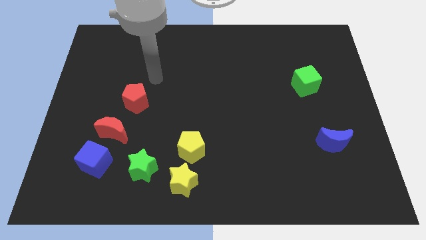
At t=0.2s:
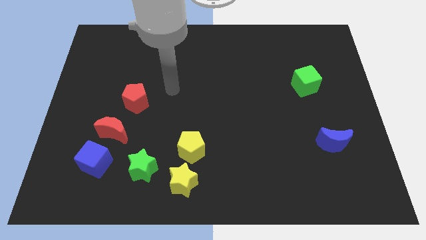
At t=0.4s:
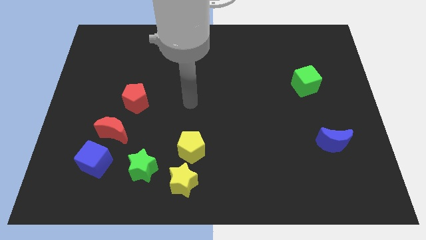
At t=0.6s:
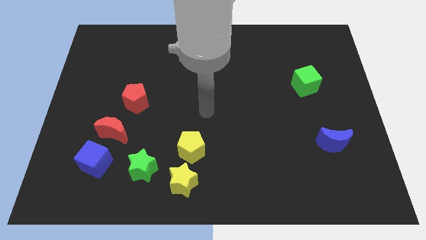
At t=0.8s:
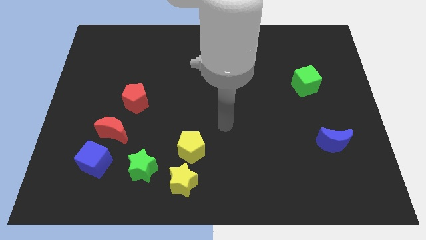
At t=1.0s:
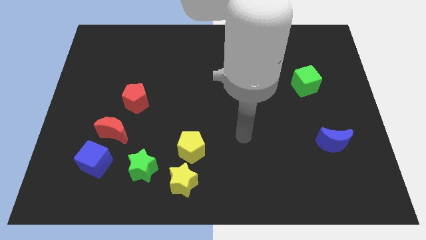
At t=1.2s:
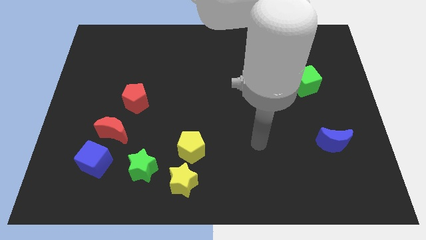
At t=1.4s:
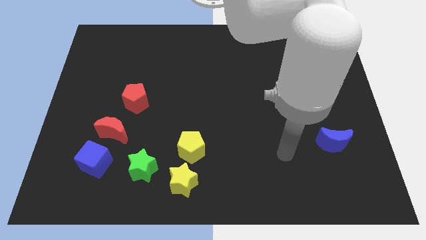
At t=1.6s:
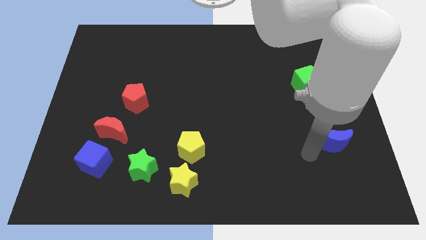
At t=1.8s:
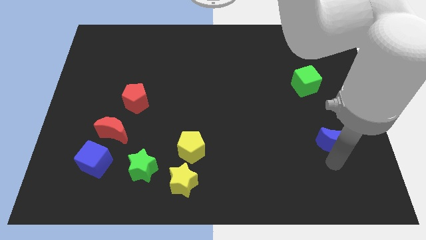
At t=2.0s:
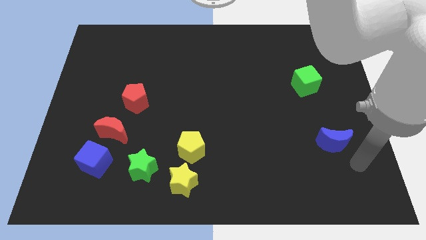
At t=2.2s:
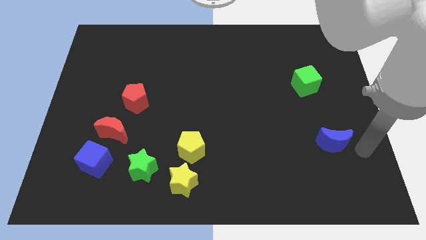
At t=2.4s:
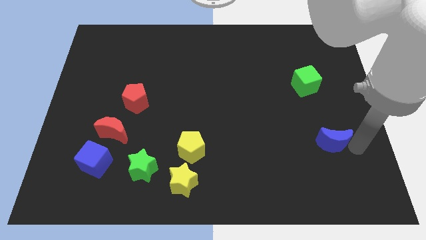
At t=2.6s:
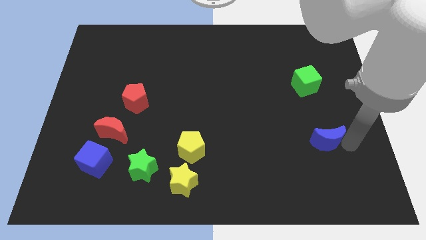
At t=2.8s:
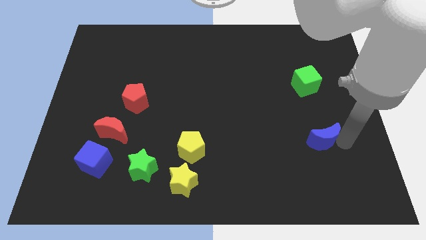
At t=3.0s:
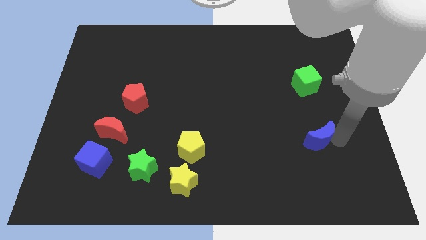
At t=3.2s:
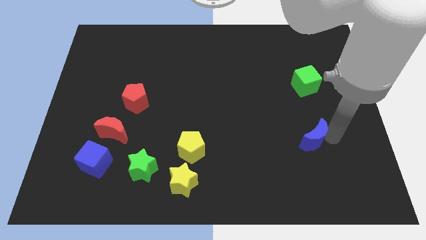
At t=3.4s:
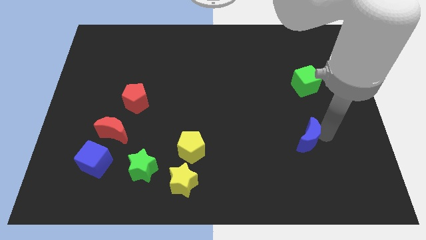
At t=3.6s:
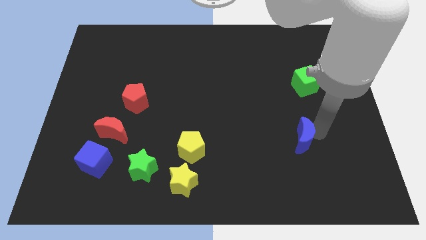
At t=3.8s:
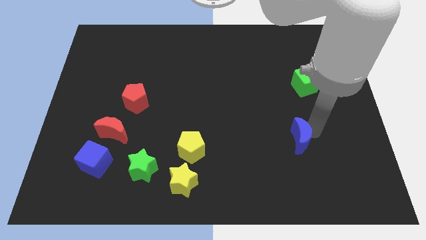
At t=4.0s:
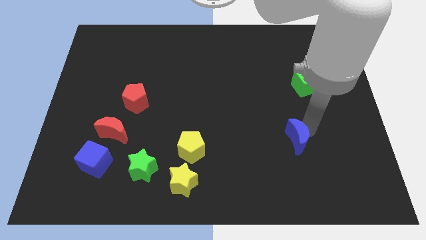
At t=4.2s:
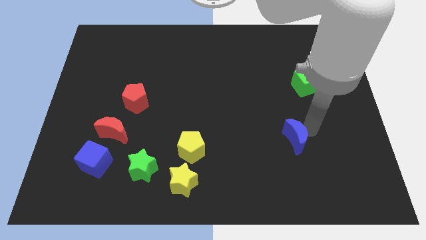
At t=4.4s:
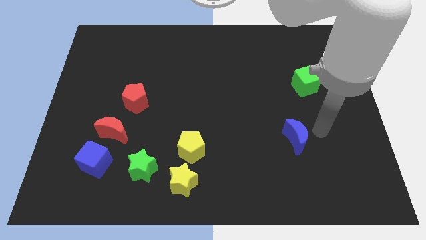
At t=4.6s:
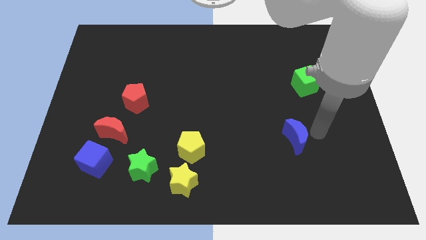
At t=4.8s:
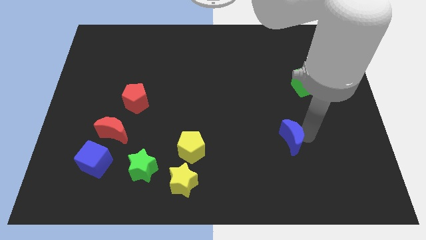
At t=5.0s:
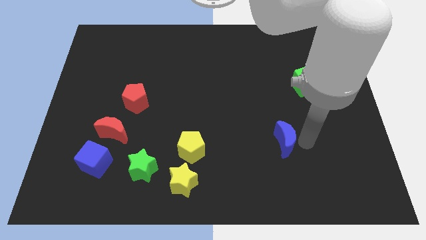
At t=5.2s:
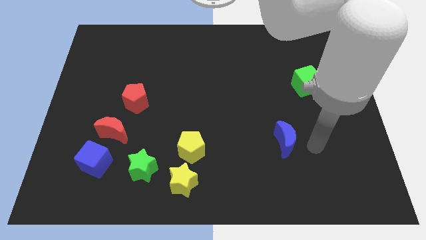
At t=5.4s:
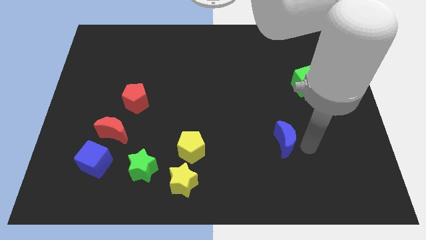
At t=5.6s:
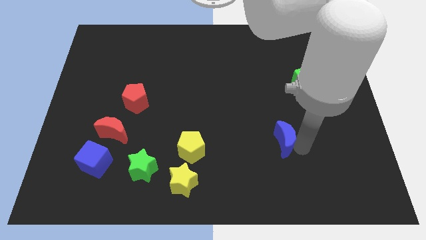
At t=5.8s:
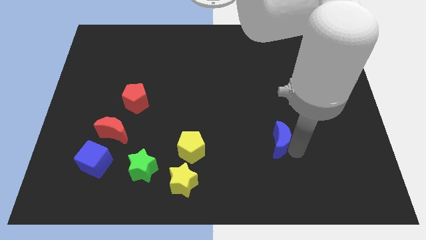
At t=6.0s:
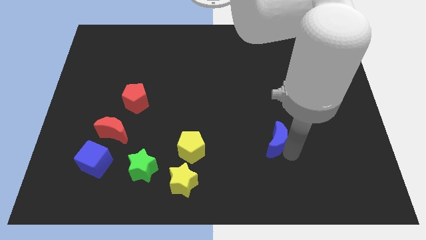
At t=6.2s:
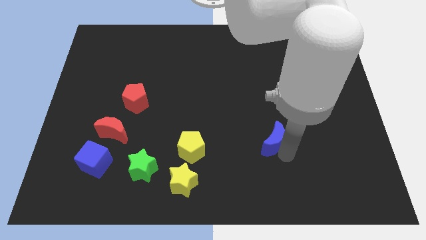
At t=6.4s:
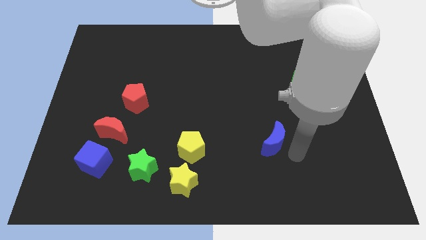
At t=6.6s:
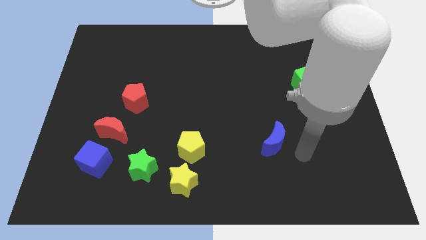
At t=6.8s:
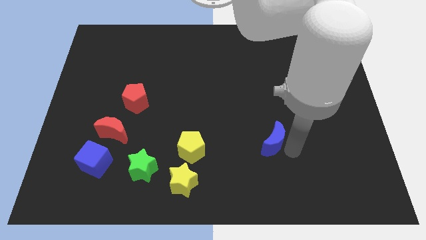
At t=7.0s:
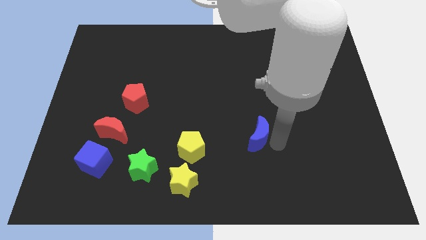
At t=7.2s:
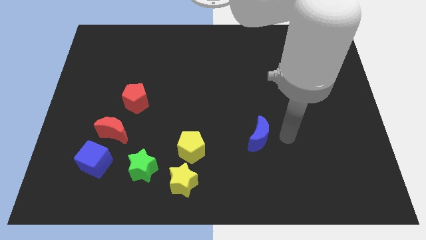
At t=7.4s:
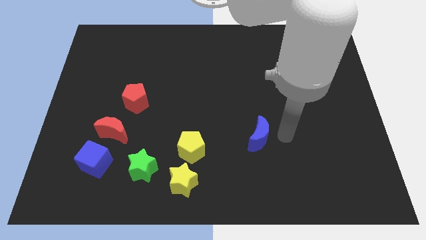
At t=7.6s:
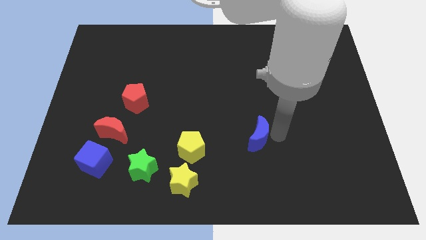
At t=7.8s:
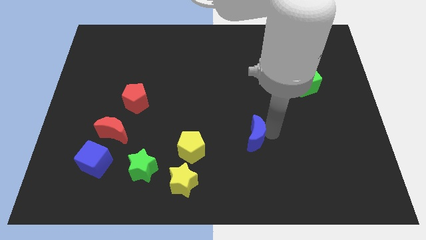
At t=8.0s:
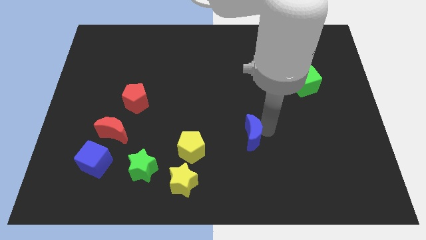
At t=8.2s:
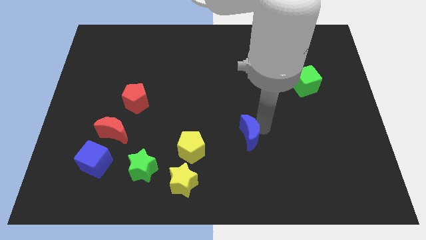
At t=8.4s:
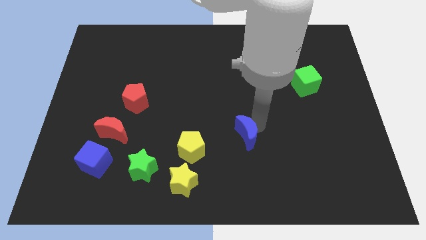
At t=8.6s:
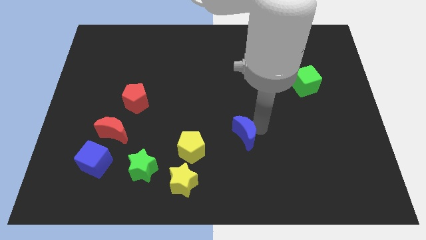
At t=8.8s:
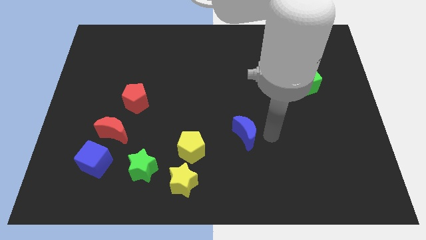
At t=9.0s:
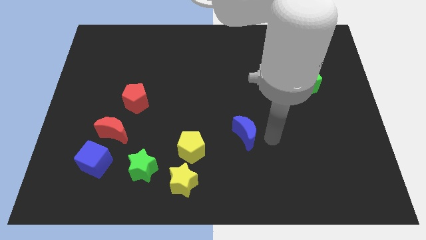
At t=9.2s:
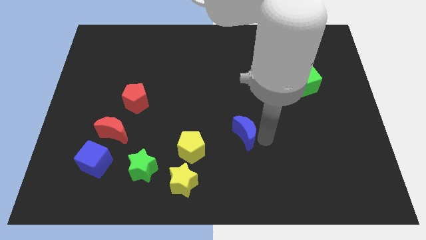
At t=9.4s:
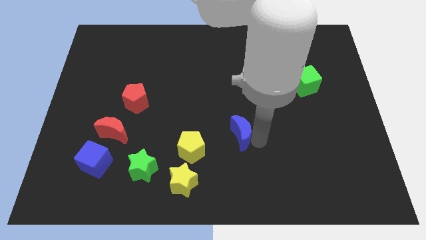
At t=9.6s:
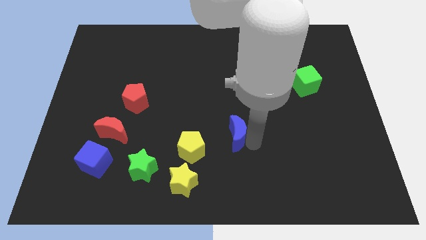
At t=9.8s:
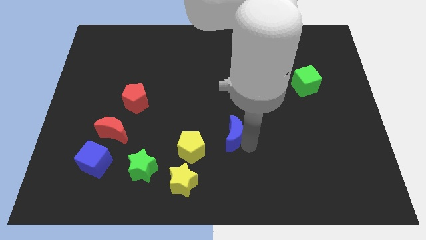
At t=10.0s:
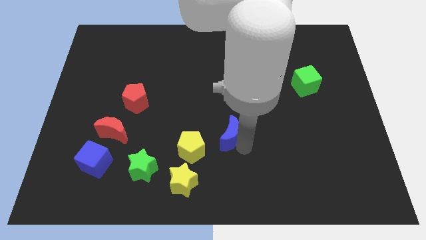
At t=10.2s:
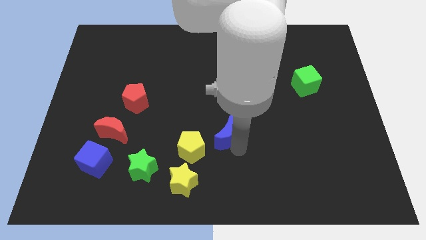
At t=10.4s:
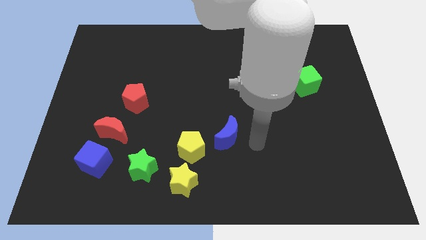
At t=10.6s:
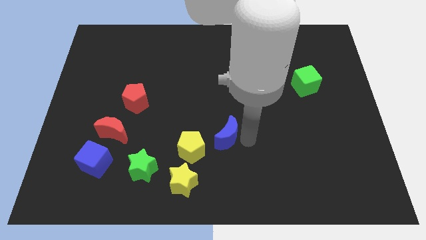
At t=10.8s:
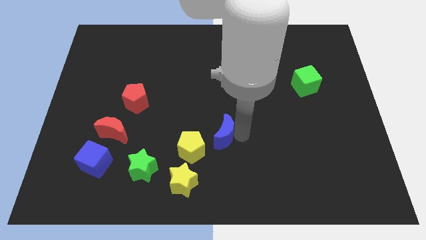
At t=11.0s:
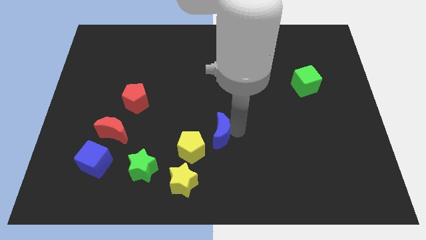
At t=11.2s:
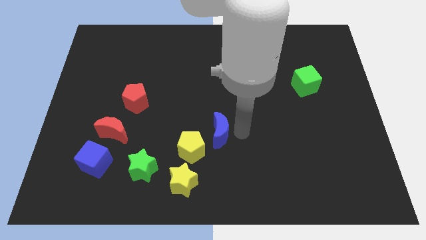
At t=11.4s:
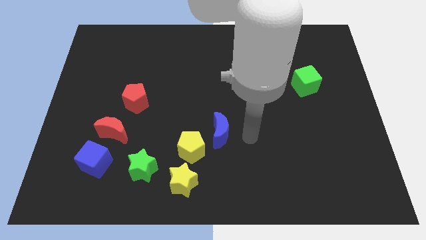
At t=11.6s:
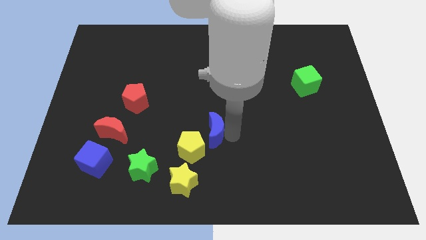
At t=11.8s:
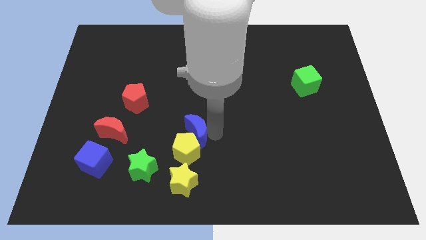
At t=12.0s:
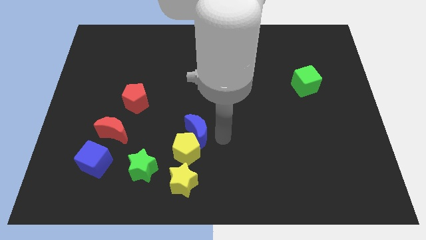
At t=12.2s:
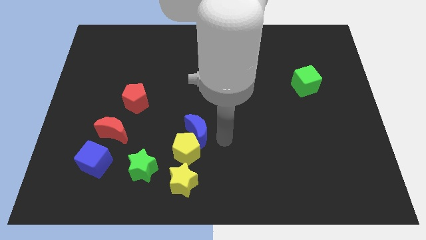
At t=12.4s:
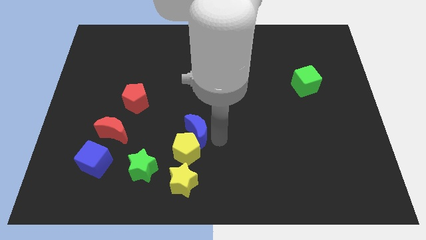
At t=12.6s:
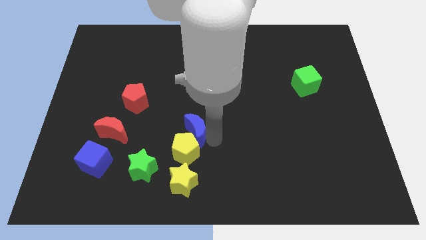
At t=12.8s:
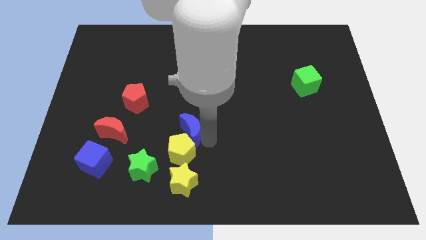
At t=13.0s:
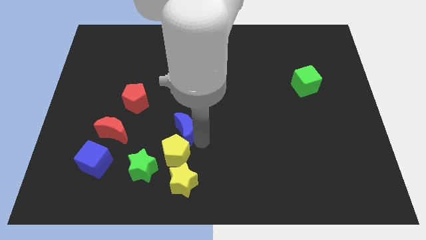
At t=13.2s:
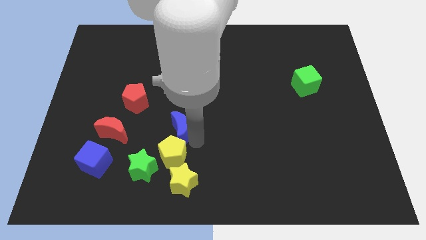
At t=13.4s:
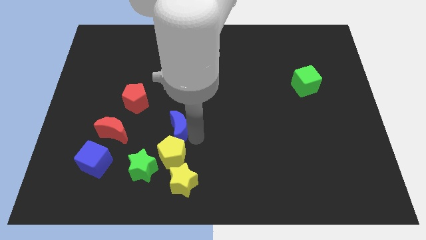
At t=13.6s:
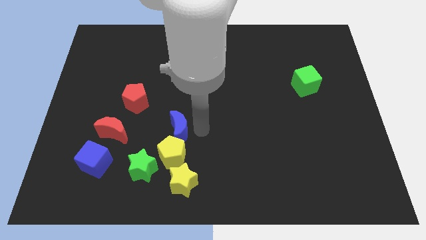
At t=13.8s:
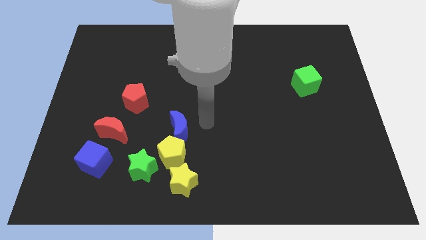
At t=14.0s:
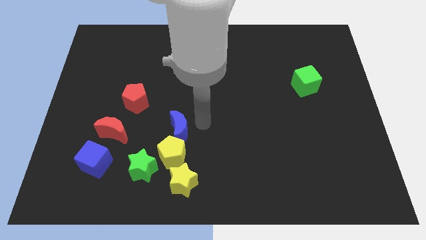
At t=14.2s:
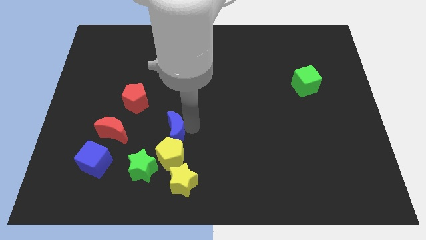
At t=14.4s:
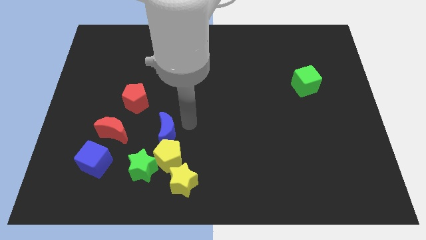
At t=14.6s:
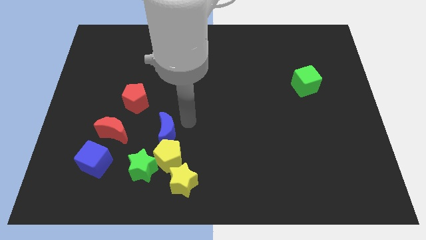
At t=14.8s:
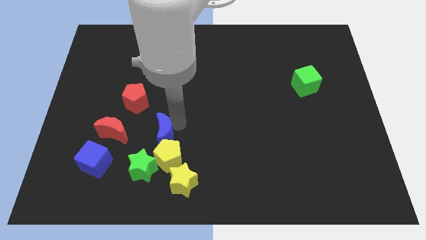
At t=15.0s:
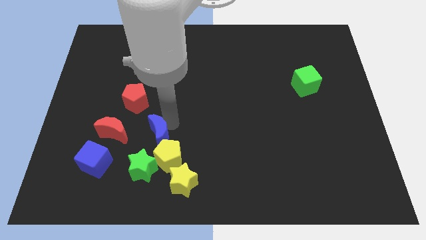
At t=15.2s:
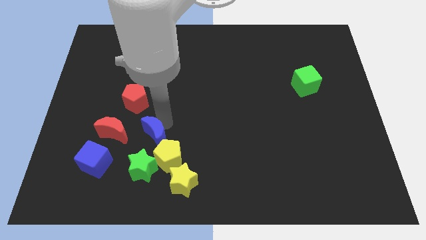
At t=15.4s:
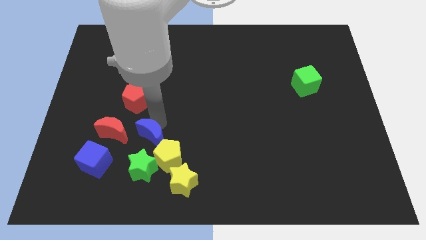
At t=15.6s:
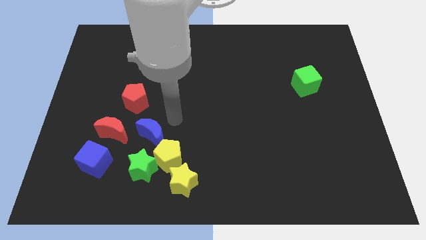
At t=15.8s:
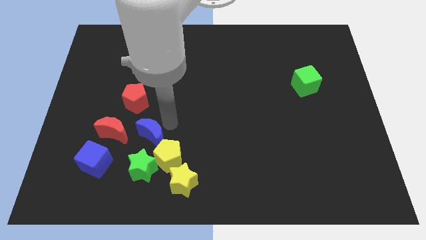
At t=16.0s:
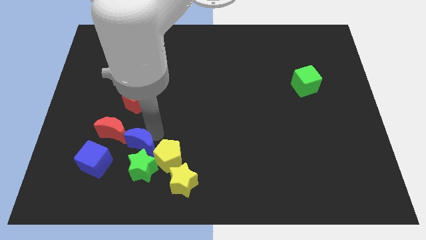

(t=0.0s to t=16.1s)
slide the blue moon to the left of the yellow pentagon

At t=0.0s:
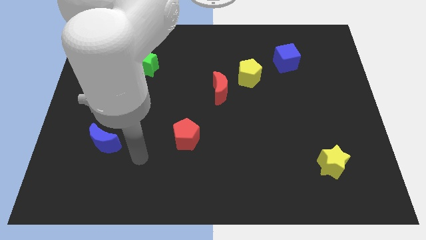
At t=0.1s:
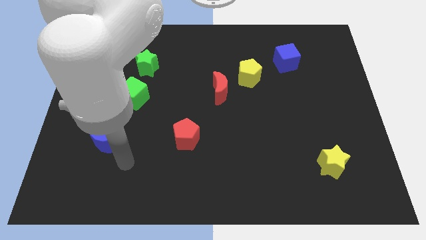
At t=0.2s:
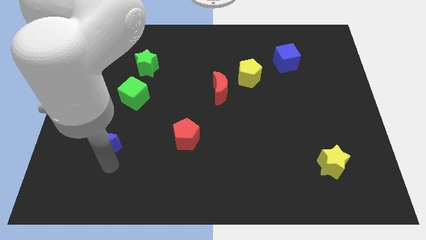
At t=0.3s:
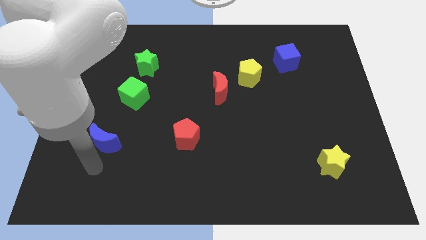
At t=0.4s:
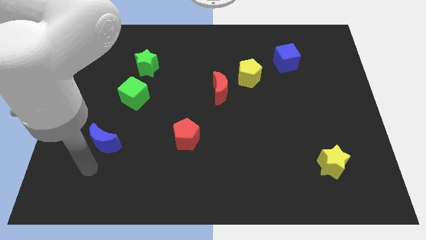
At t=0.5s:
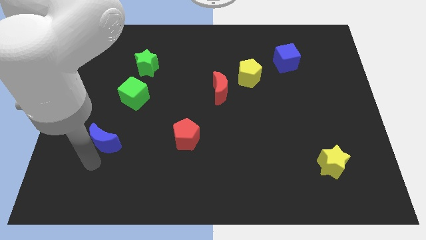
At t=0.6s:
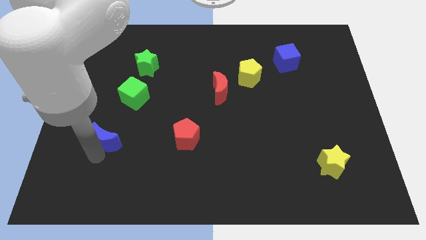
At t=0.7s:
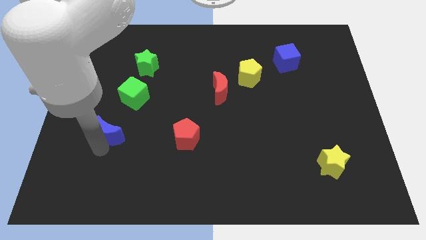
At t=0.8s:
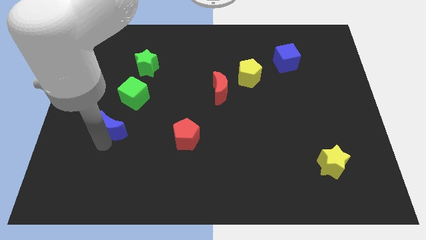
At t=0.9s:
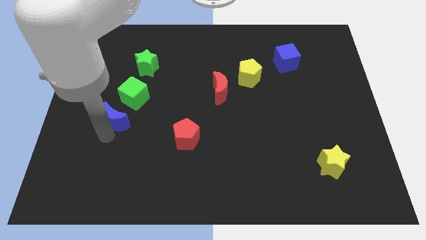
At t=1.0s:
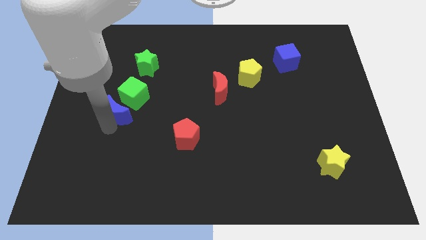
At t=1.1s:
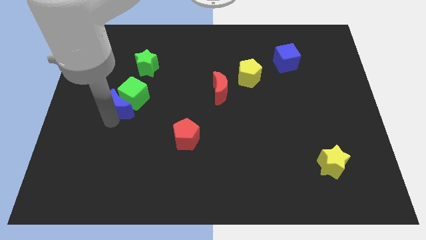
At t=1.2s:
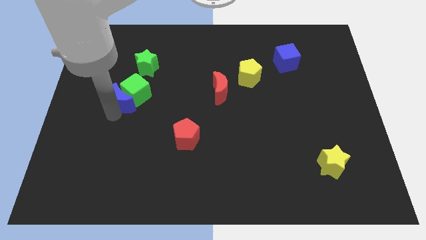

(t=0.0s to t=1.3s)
move the blue moon below the green star
